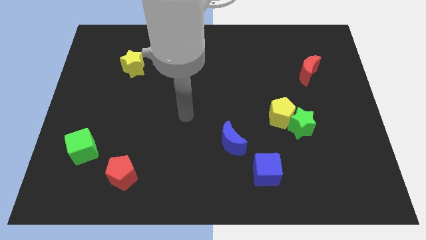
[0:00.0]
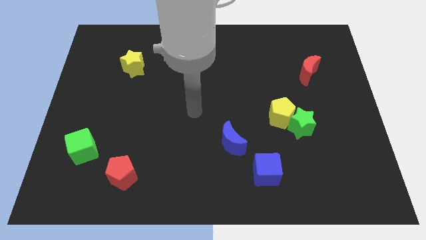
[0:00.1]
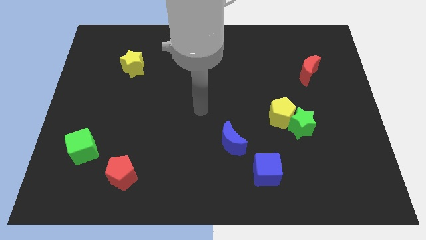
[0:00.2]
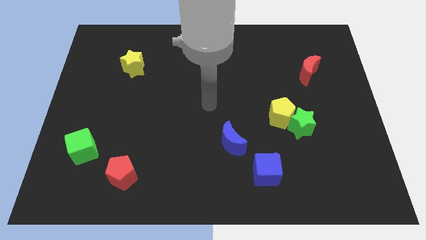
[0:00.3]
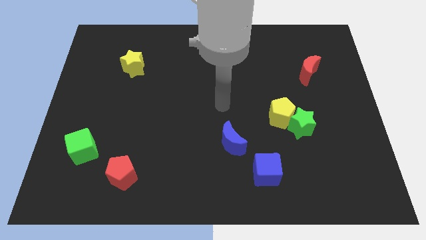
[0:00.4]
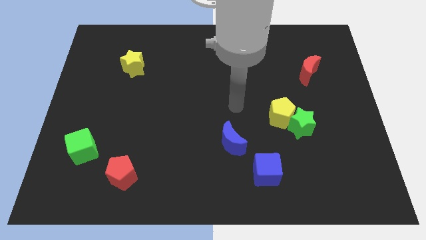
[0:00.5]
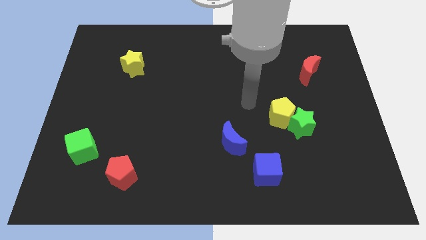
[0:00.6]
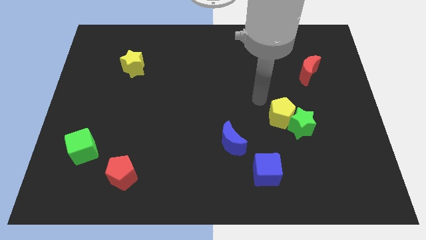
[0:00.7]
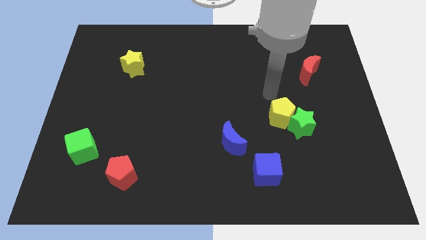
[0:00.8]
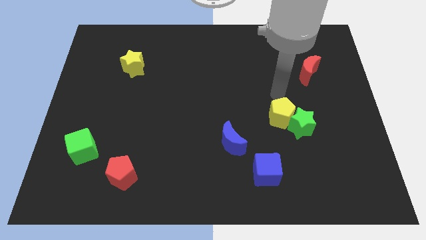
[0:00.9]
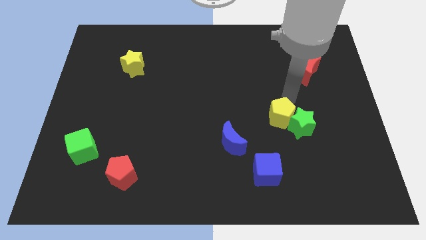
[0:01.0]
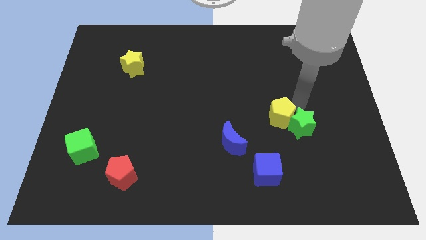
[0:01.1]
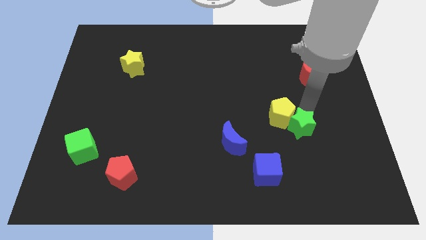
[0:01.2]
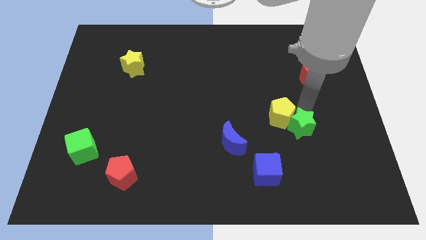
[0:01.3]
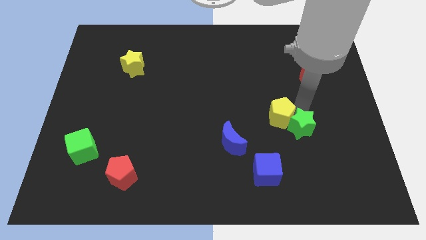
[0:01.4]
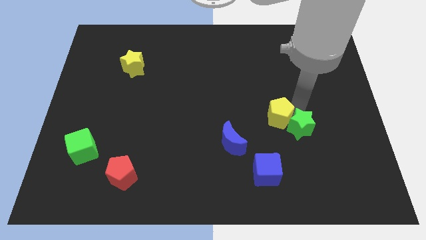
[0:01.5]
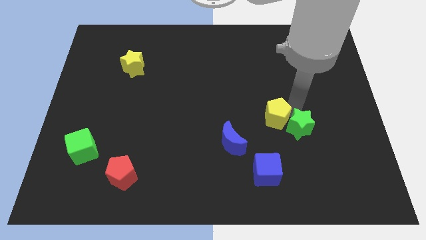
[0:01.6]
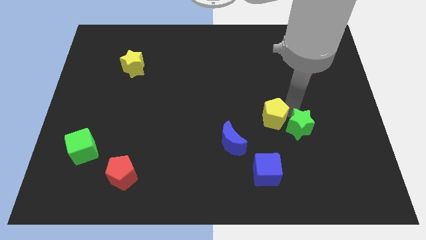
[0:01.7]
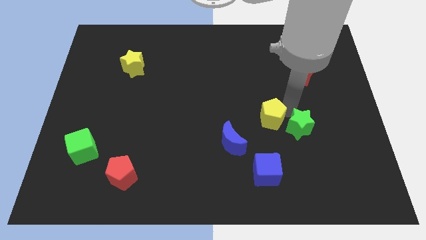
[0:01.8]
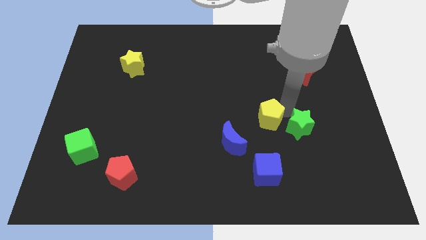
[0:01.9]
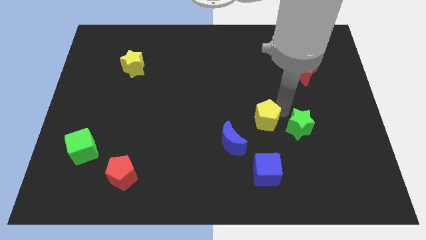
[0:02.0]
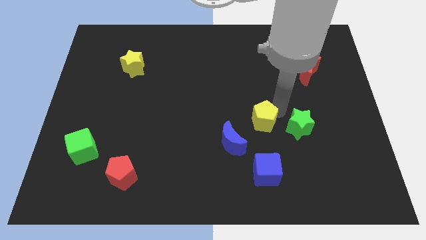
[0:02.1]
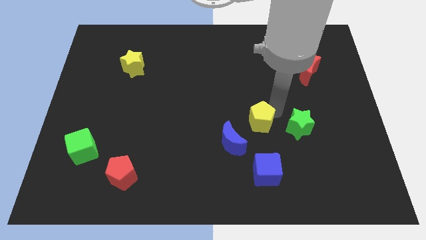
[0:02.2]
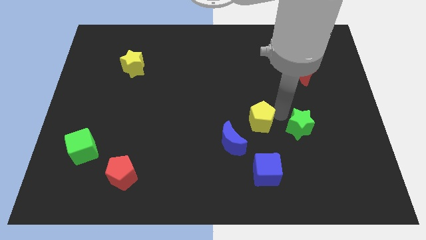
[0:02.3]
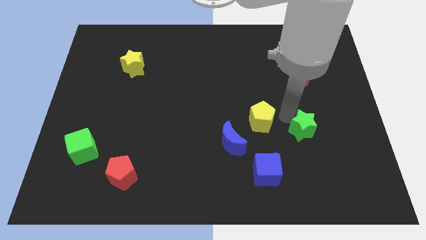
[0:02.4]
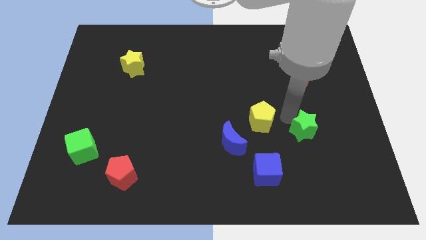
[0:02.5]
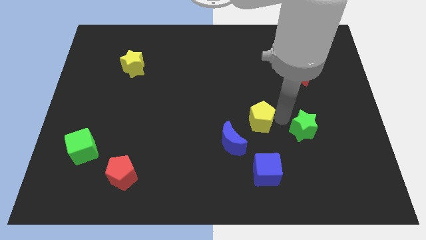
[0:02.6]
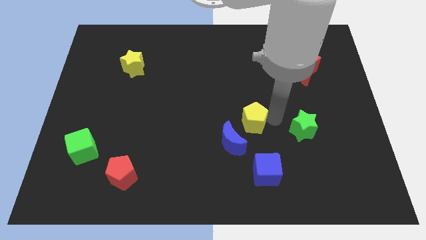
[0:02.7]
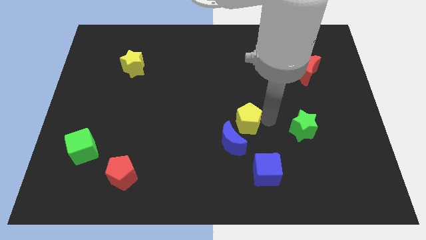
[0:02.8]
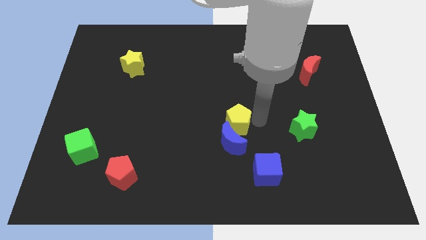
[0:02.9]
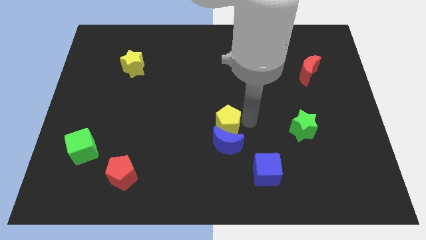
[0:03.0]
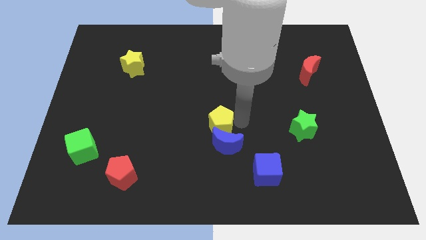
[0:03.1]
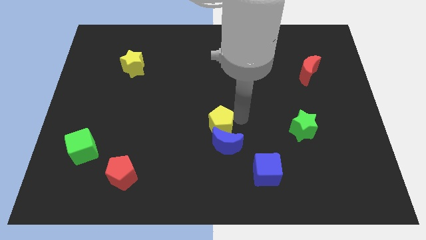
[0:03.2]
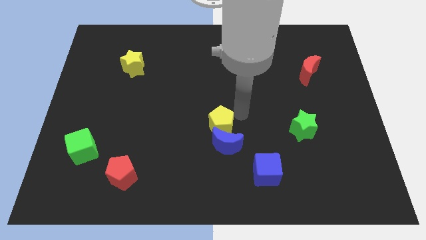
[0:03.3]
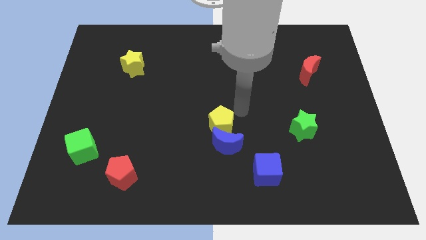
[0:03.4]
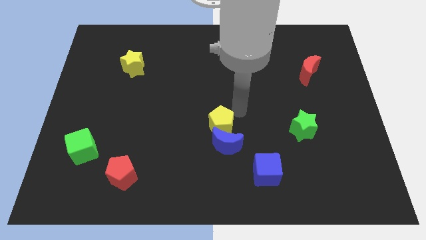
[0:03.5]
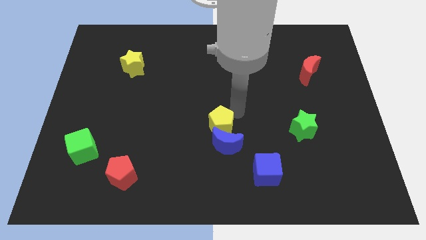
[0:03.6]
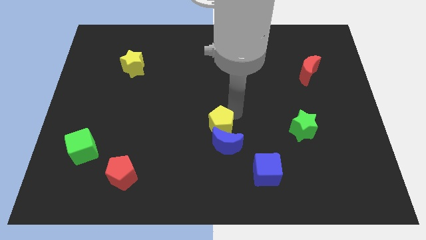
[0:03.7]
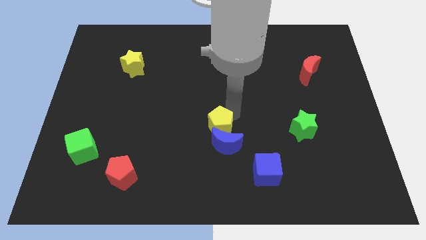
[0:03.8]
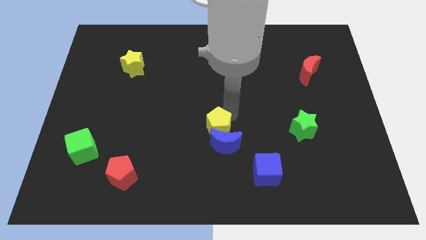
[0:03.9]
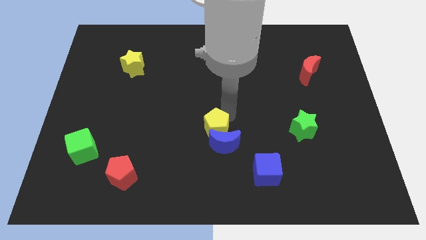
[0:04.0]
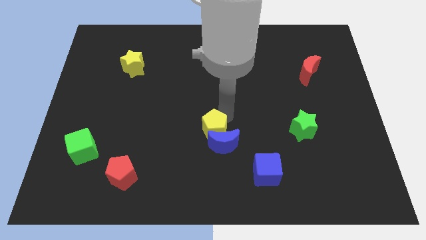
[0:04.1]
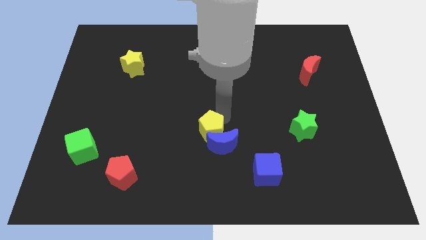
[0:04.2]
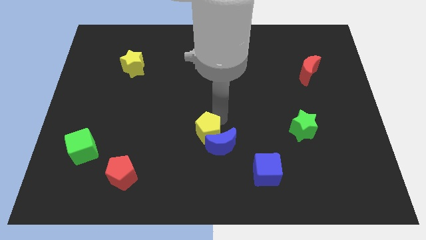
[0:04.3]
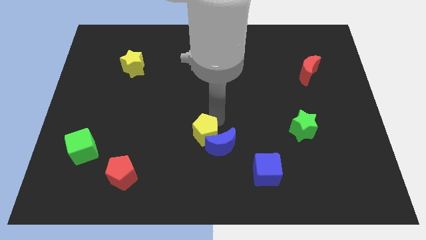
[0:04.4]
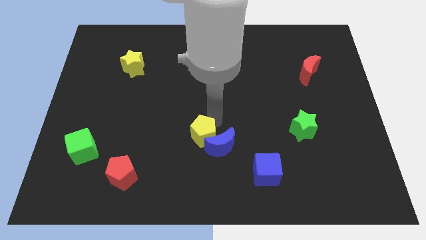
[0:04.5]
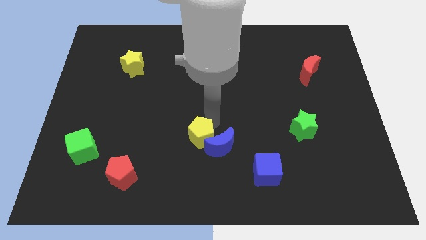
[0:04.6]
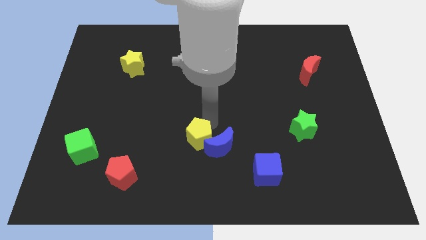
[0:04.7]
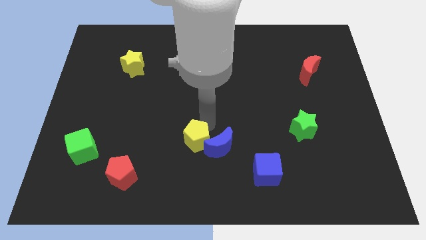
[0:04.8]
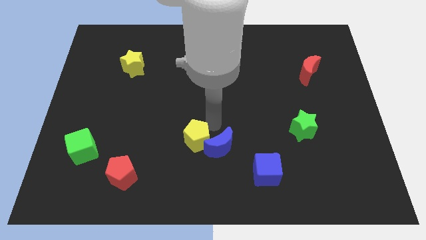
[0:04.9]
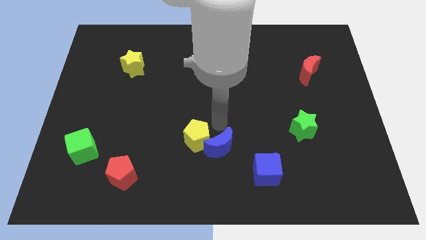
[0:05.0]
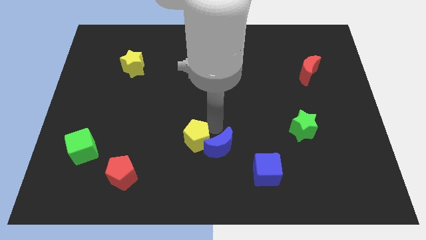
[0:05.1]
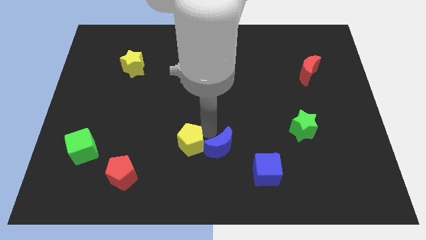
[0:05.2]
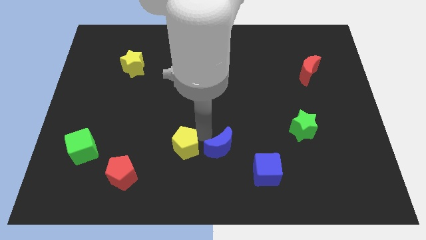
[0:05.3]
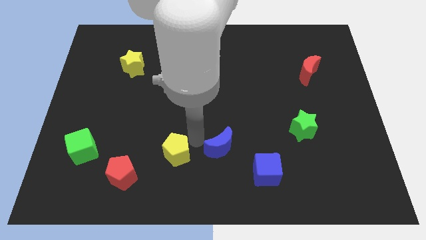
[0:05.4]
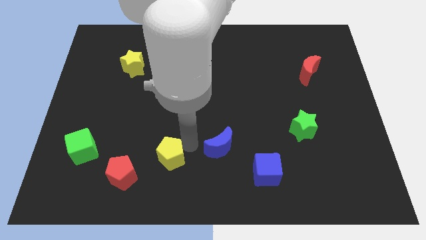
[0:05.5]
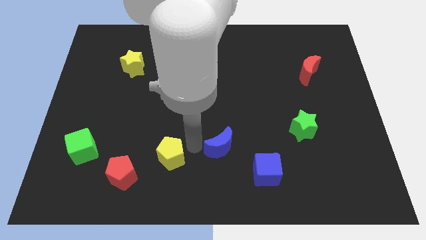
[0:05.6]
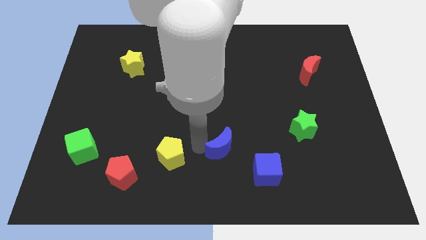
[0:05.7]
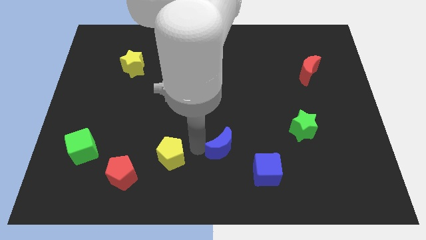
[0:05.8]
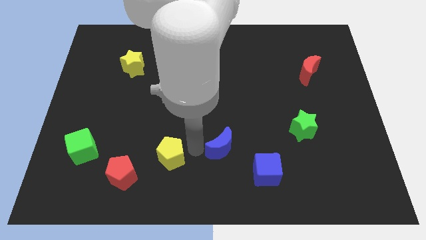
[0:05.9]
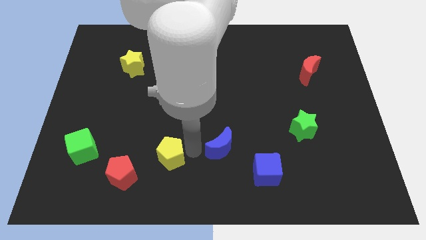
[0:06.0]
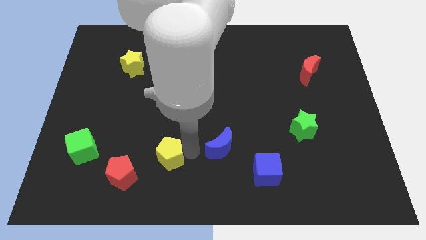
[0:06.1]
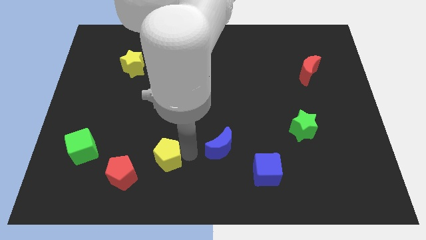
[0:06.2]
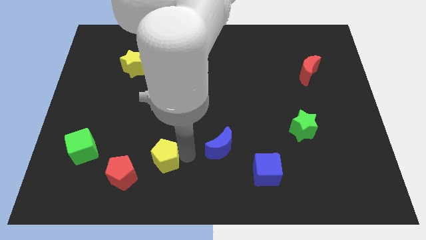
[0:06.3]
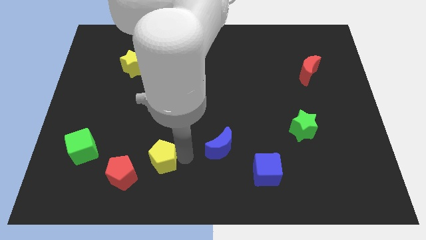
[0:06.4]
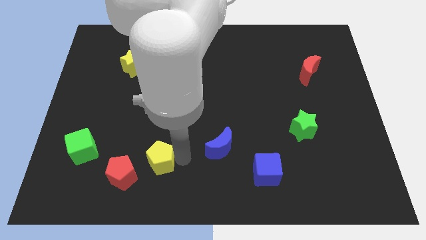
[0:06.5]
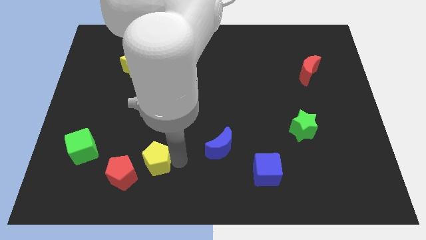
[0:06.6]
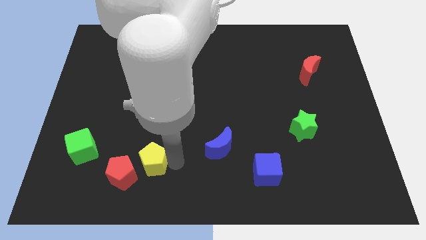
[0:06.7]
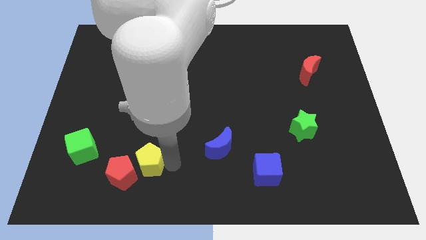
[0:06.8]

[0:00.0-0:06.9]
slide the yellow pentagon to the red pentagon

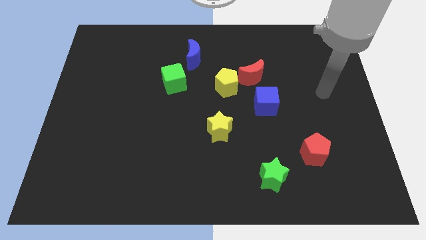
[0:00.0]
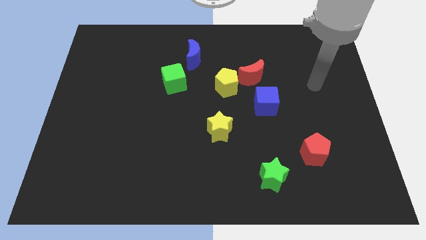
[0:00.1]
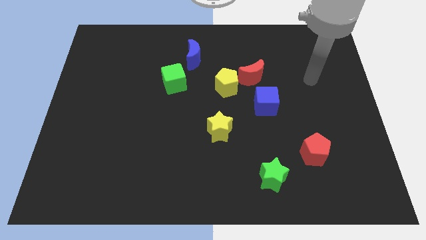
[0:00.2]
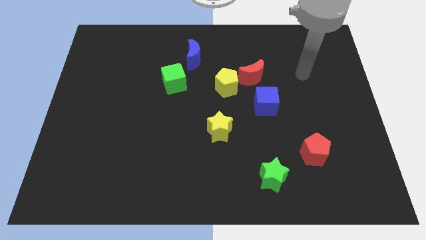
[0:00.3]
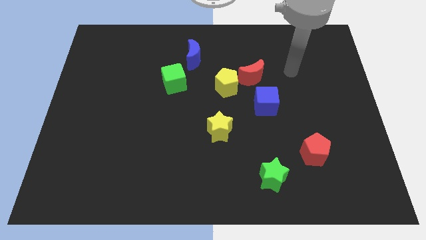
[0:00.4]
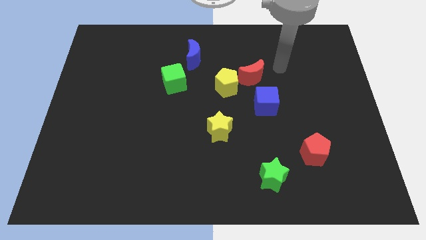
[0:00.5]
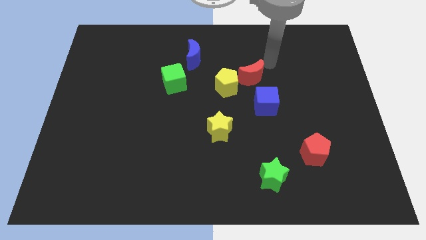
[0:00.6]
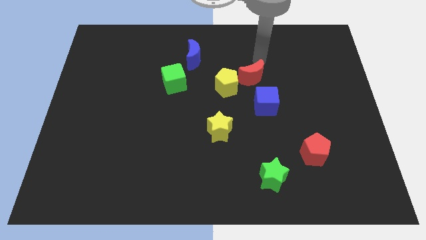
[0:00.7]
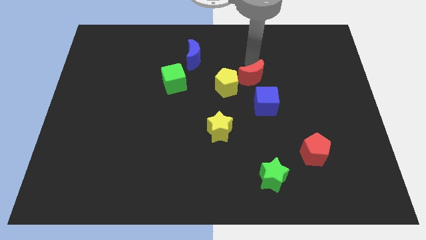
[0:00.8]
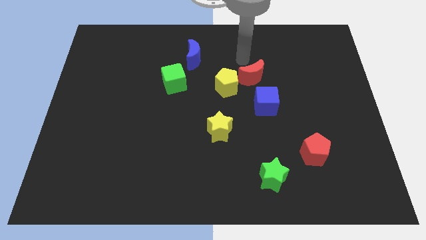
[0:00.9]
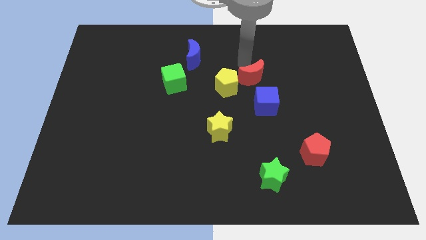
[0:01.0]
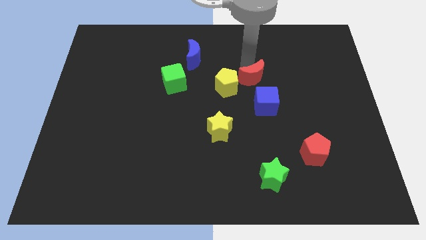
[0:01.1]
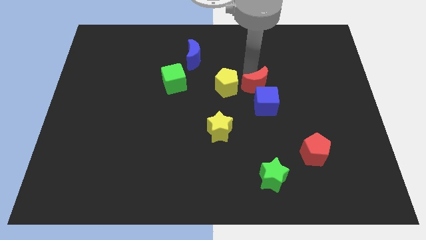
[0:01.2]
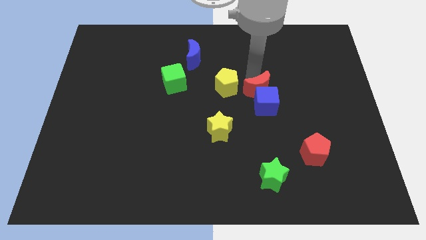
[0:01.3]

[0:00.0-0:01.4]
put the red moon next to the blue cube
